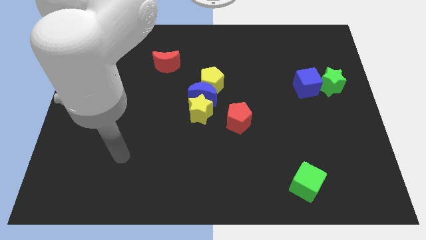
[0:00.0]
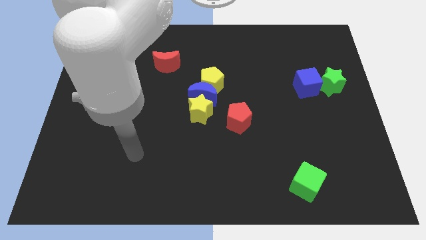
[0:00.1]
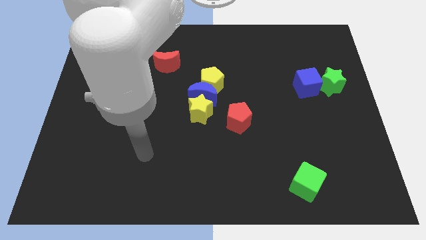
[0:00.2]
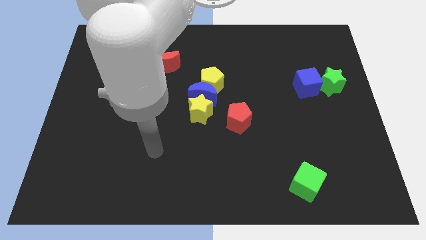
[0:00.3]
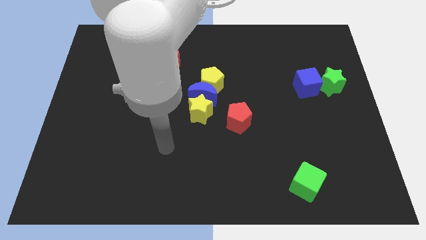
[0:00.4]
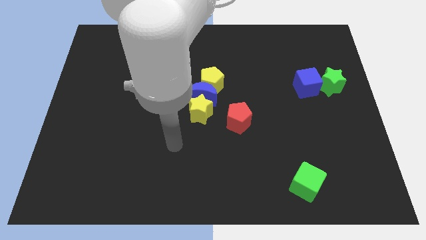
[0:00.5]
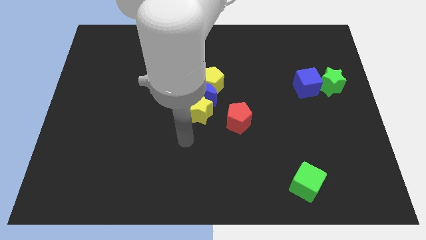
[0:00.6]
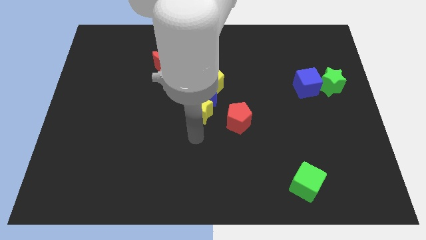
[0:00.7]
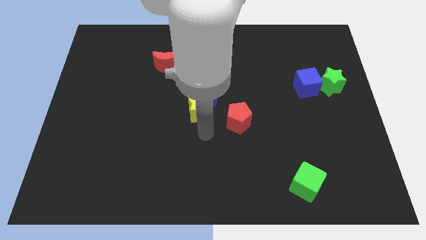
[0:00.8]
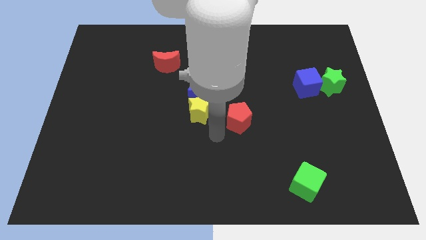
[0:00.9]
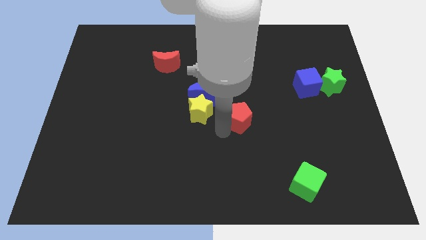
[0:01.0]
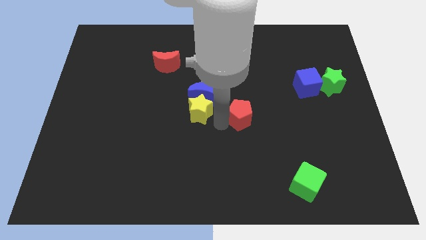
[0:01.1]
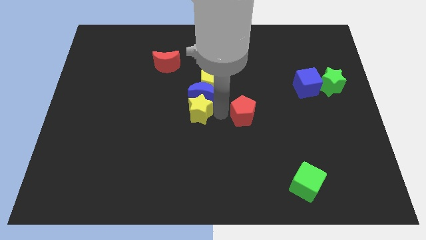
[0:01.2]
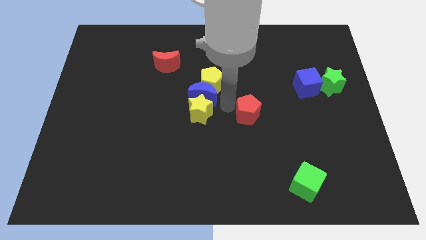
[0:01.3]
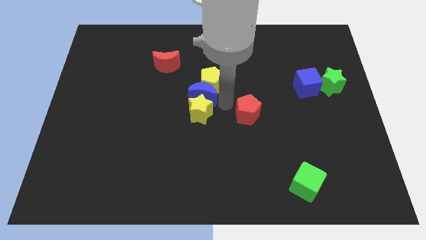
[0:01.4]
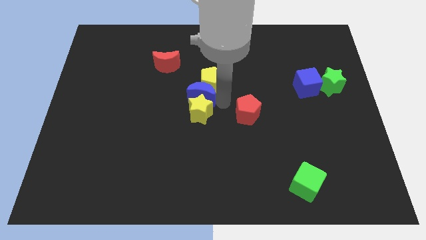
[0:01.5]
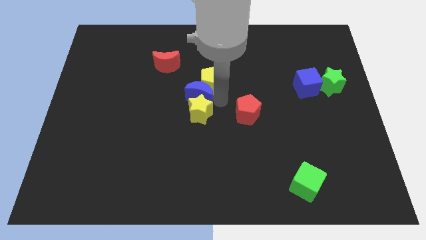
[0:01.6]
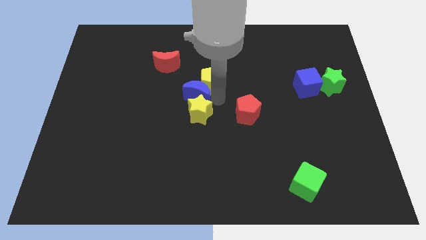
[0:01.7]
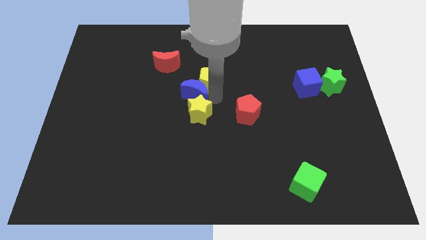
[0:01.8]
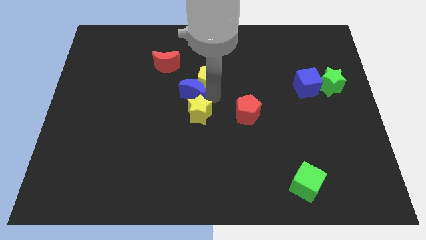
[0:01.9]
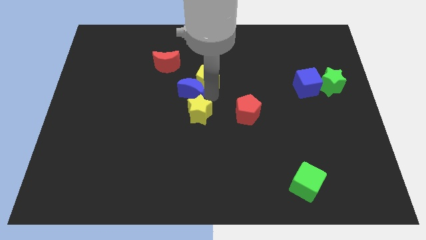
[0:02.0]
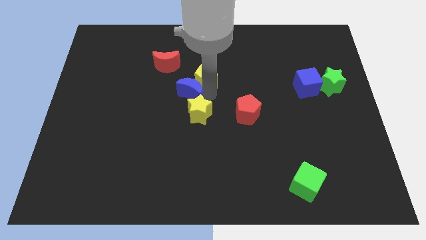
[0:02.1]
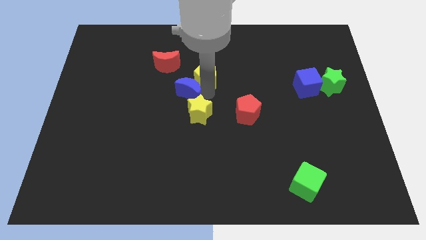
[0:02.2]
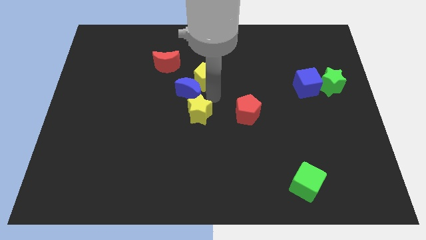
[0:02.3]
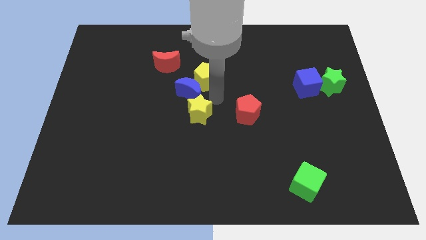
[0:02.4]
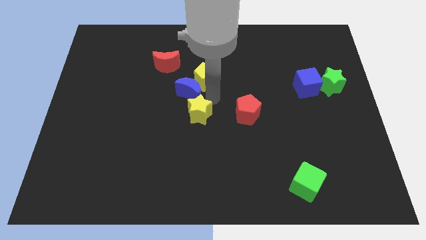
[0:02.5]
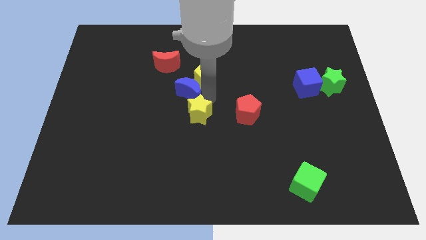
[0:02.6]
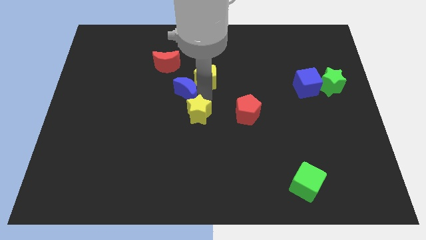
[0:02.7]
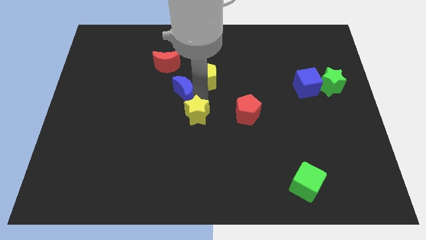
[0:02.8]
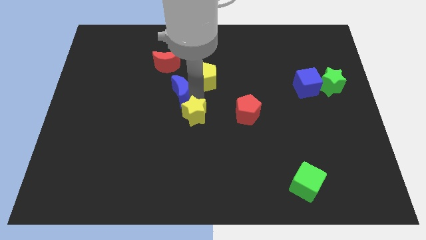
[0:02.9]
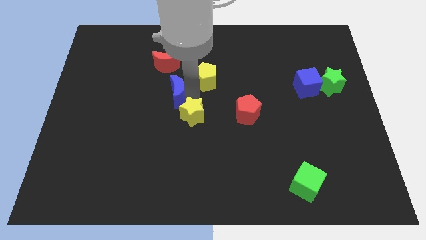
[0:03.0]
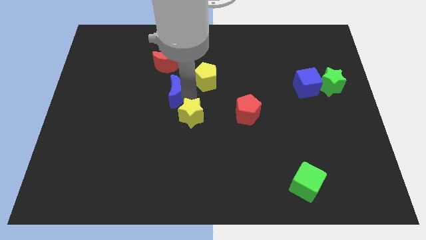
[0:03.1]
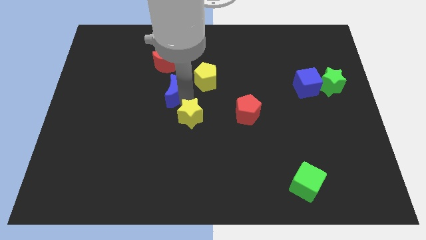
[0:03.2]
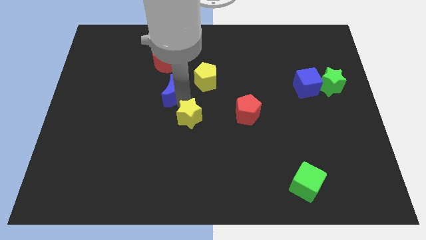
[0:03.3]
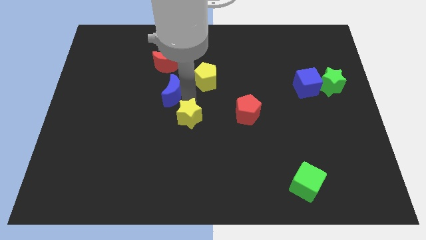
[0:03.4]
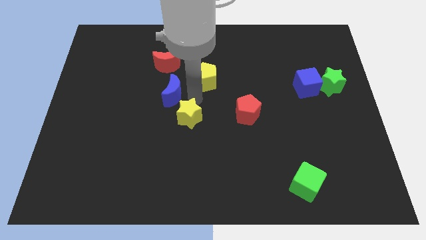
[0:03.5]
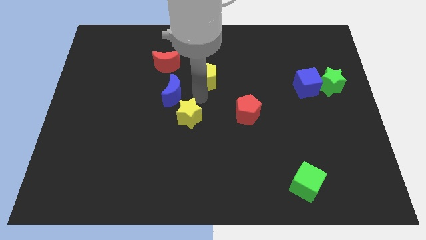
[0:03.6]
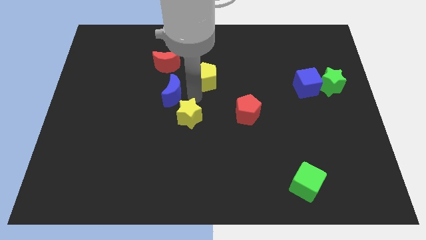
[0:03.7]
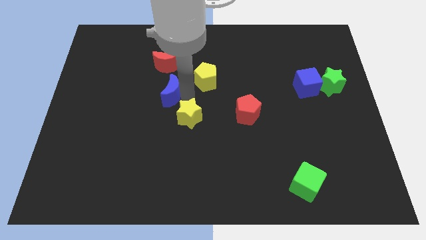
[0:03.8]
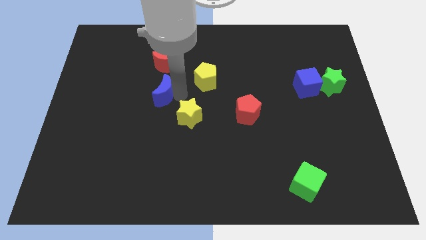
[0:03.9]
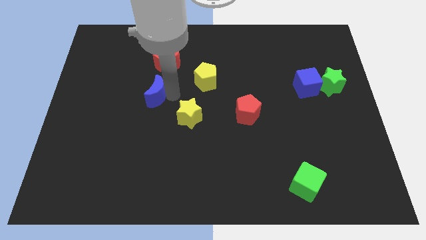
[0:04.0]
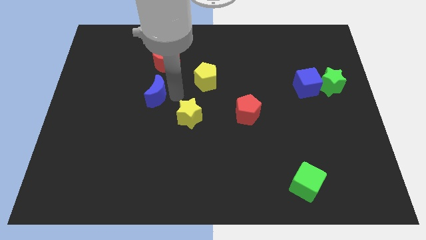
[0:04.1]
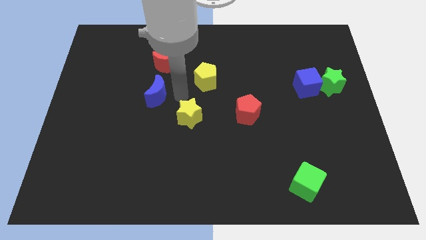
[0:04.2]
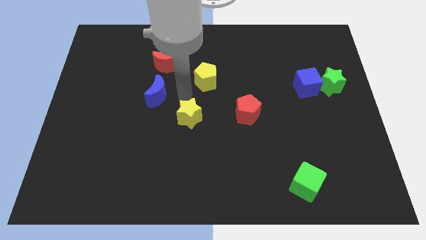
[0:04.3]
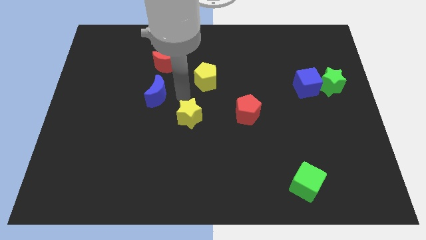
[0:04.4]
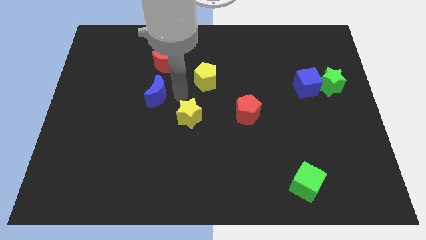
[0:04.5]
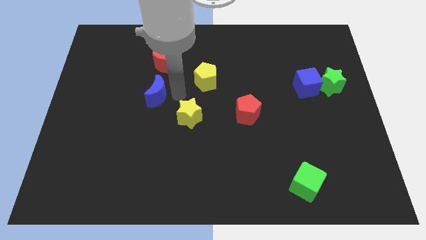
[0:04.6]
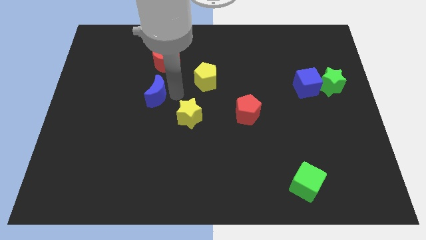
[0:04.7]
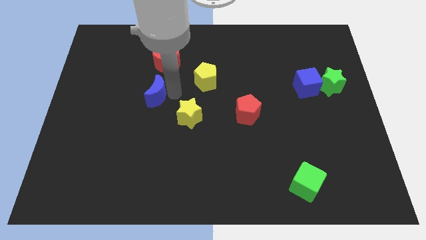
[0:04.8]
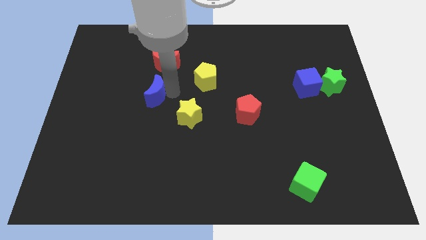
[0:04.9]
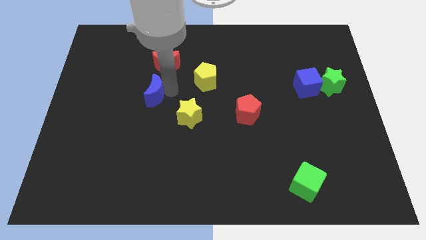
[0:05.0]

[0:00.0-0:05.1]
move the blue moon away from the yellow pentagon and yellow star

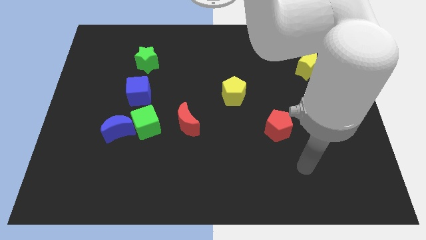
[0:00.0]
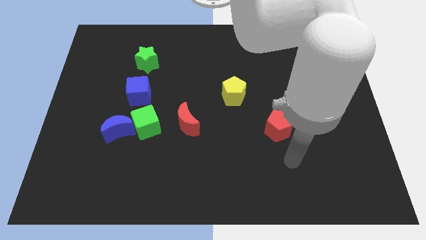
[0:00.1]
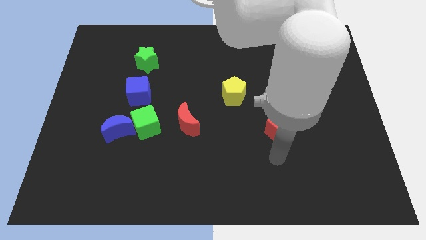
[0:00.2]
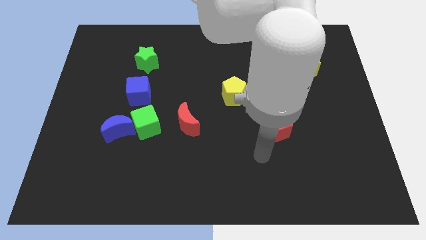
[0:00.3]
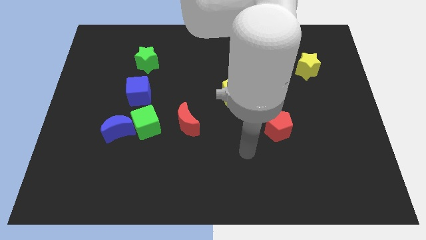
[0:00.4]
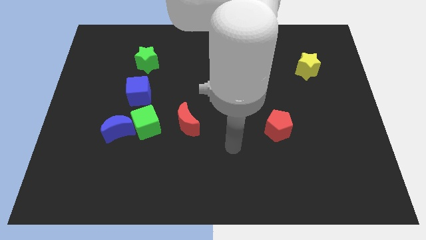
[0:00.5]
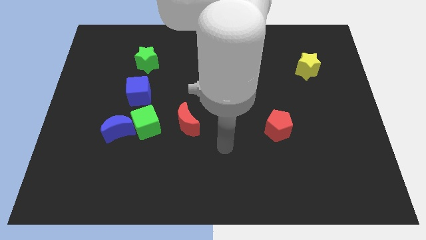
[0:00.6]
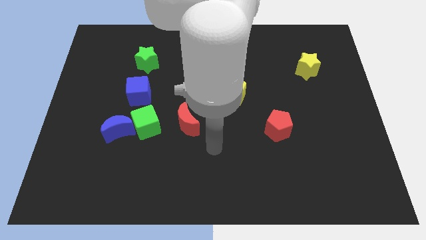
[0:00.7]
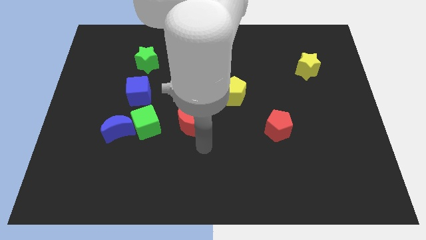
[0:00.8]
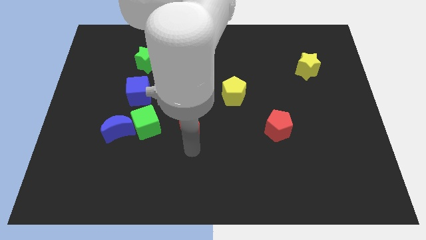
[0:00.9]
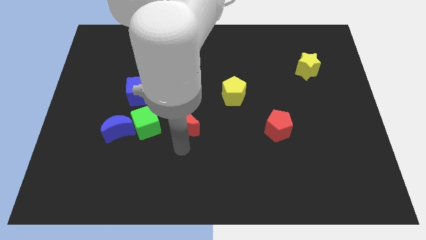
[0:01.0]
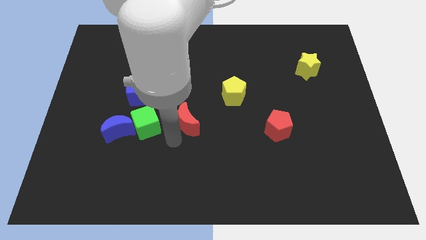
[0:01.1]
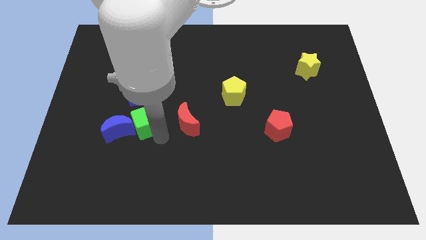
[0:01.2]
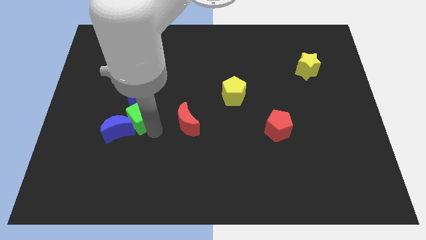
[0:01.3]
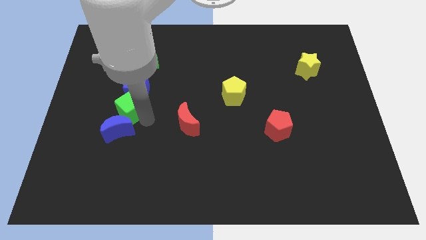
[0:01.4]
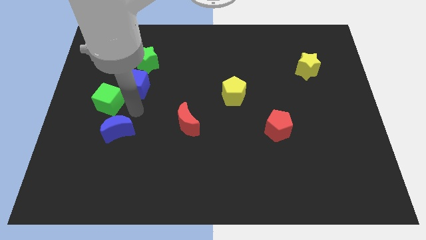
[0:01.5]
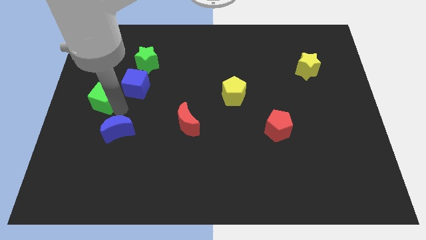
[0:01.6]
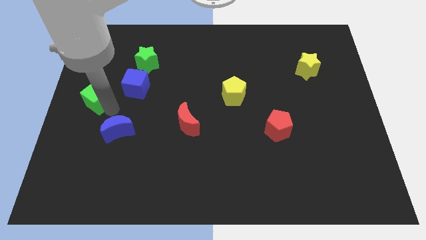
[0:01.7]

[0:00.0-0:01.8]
separate the blue moon from the green cube

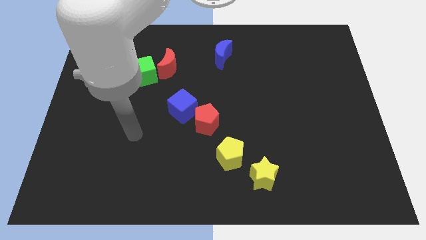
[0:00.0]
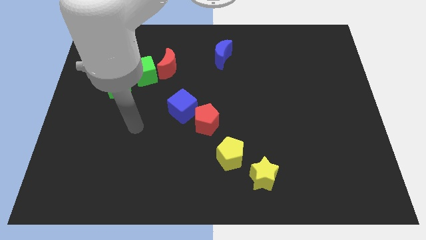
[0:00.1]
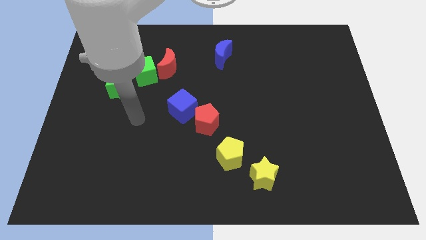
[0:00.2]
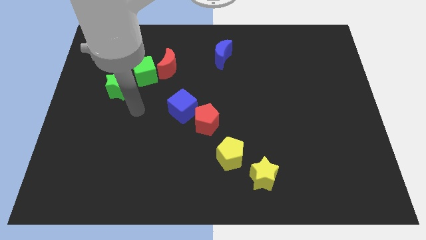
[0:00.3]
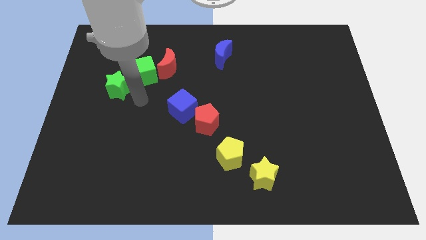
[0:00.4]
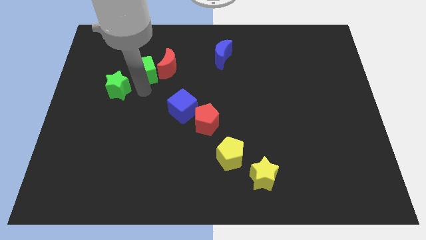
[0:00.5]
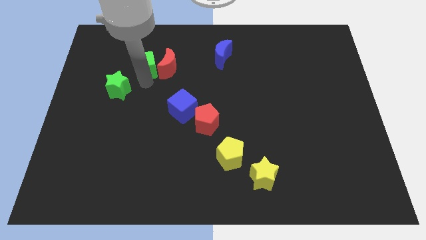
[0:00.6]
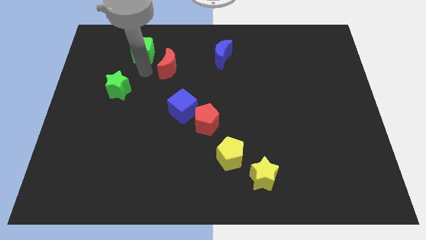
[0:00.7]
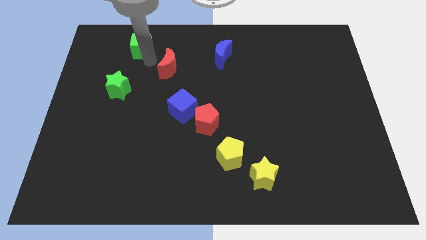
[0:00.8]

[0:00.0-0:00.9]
separate the red moon from the green cube

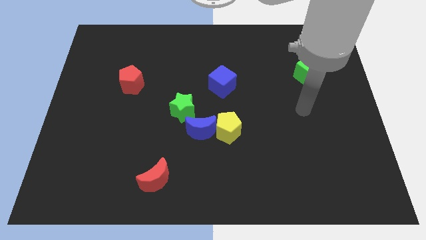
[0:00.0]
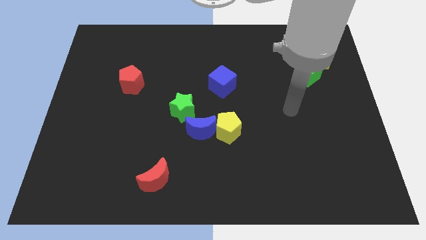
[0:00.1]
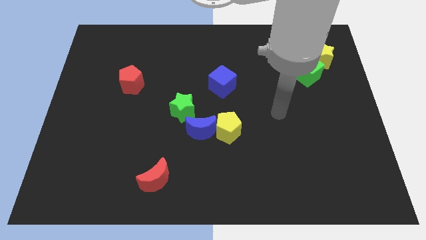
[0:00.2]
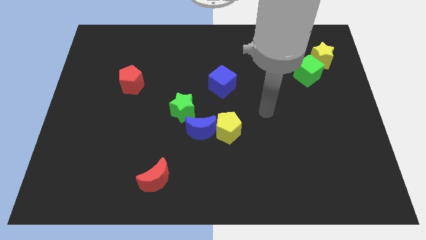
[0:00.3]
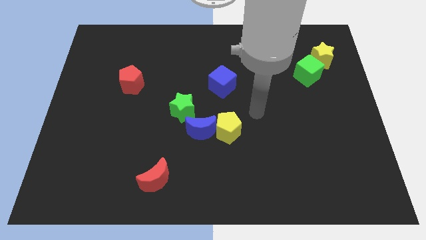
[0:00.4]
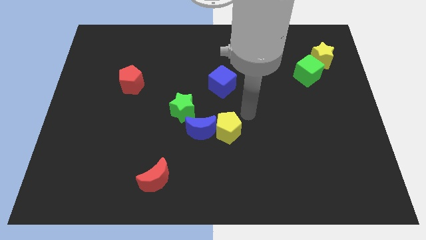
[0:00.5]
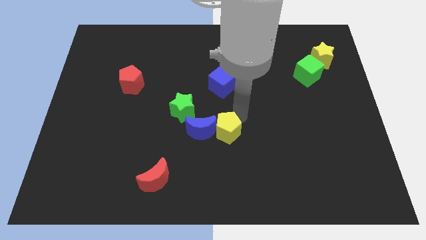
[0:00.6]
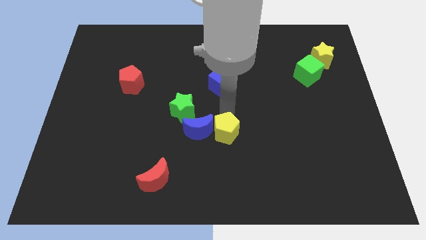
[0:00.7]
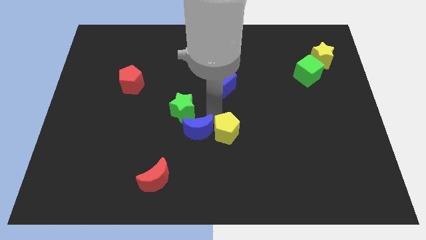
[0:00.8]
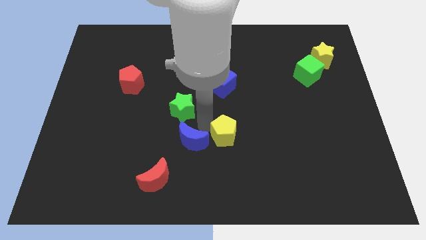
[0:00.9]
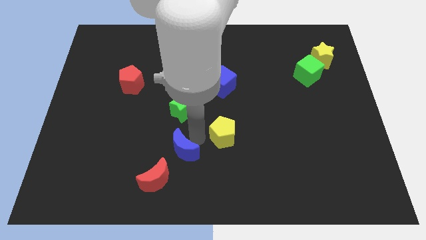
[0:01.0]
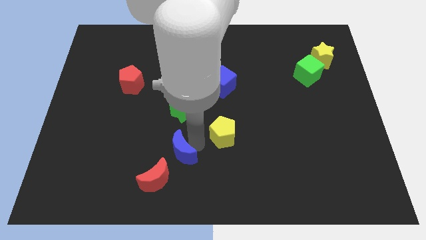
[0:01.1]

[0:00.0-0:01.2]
separate the yellow pentagon from the blue moon

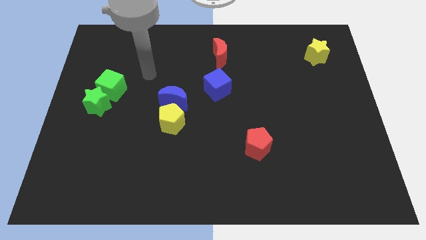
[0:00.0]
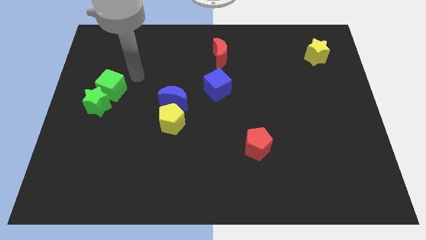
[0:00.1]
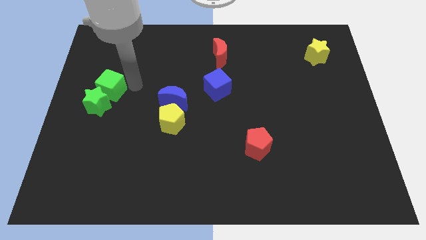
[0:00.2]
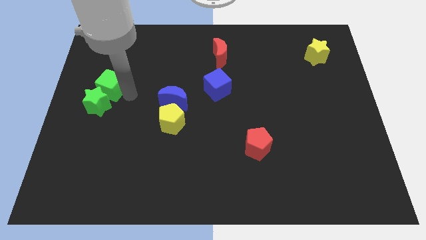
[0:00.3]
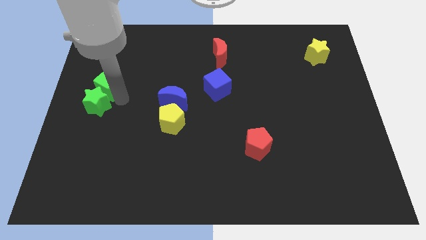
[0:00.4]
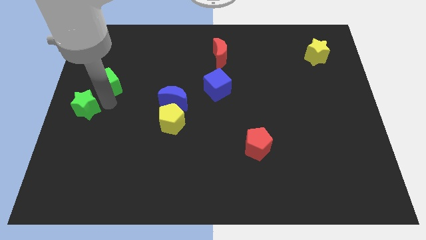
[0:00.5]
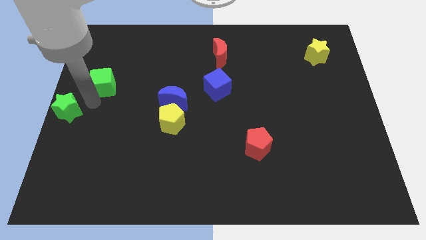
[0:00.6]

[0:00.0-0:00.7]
pull the green cube apart from the green star
